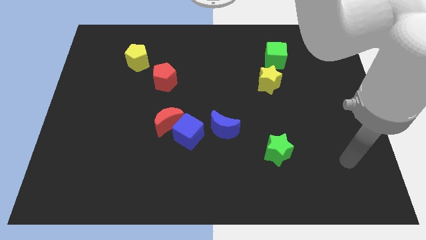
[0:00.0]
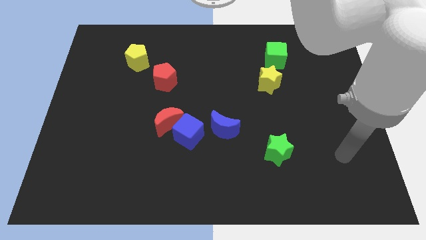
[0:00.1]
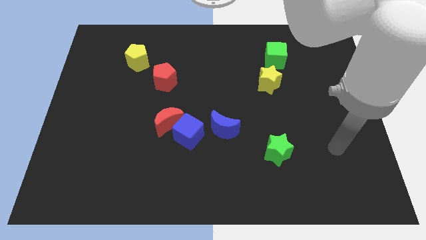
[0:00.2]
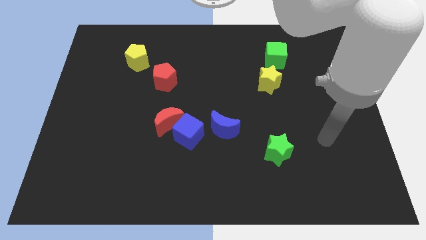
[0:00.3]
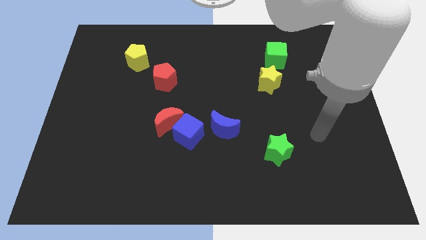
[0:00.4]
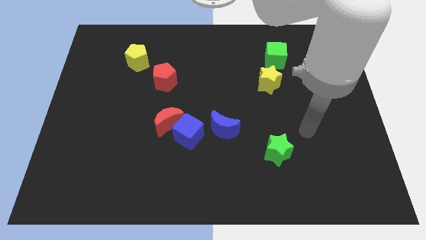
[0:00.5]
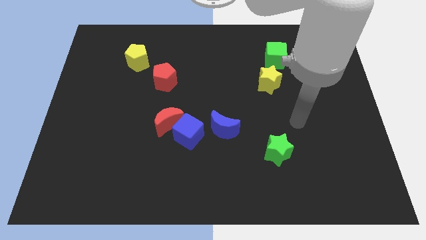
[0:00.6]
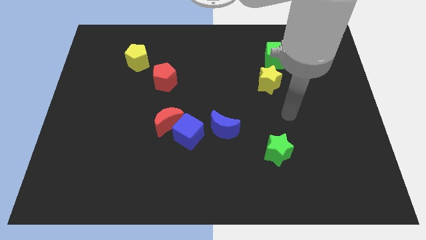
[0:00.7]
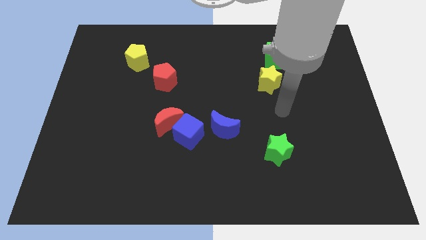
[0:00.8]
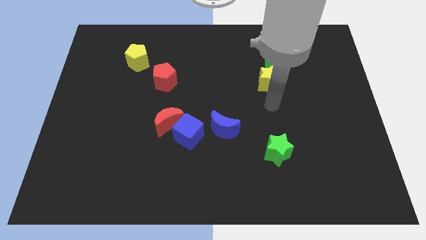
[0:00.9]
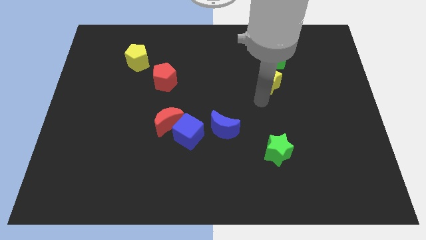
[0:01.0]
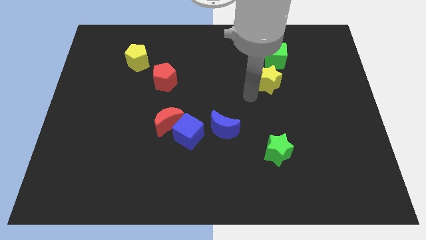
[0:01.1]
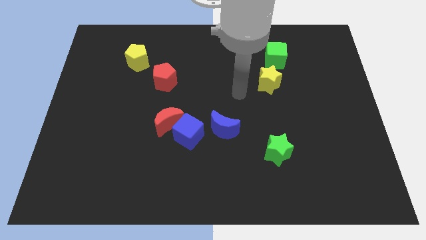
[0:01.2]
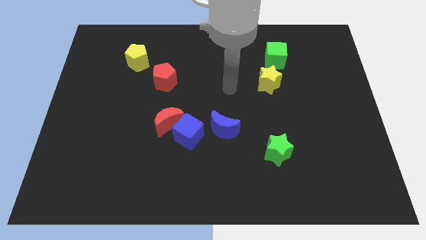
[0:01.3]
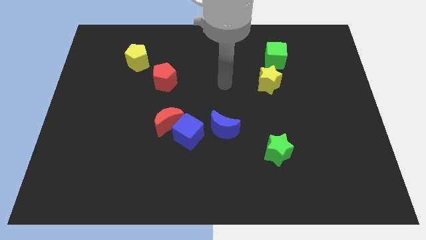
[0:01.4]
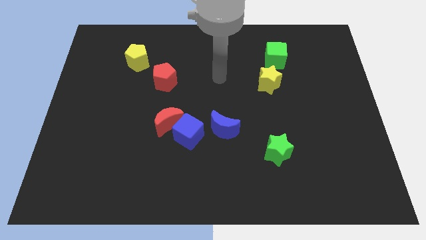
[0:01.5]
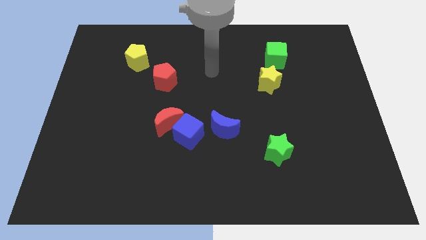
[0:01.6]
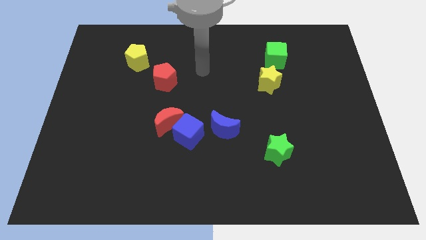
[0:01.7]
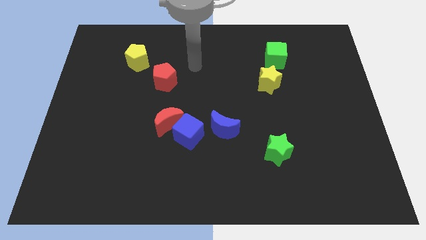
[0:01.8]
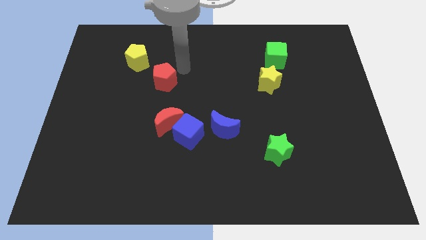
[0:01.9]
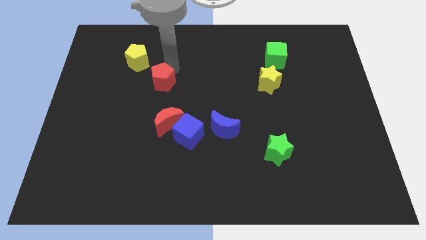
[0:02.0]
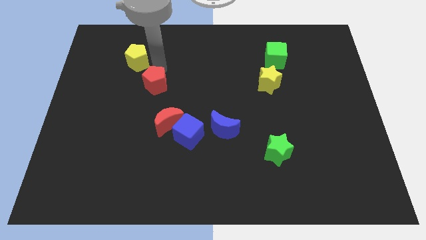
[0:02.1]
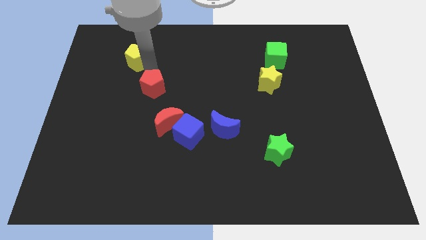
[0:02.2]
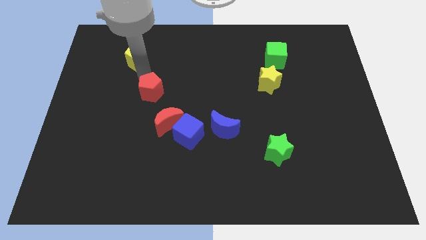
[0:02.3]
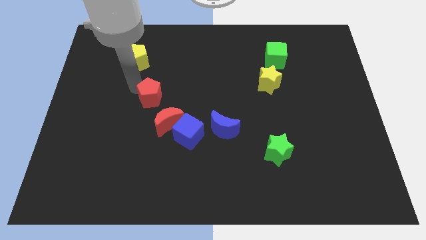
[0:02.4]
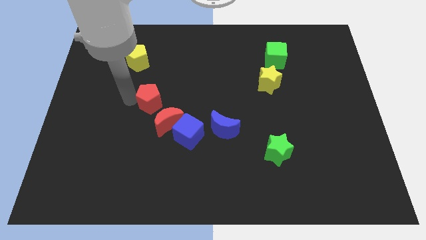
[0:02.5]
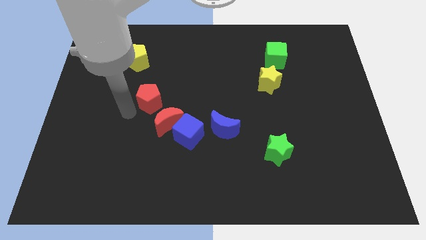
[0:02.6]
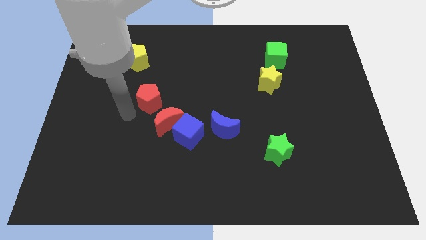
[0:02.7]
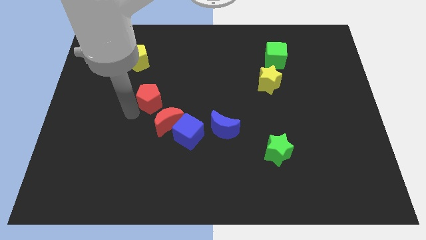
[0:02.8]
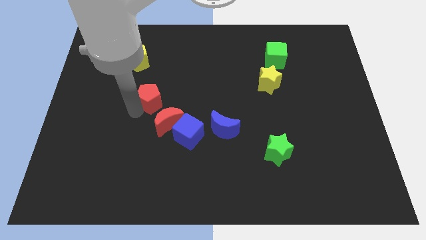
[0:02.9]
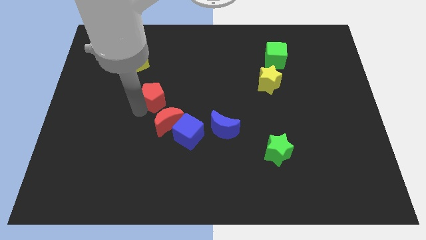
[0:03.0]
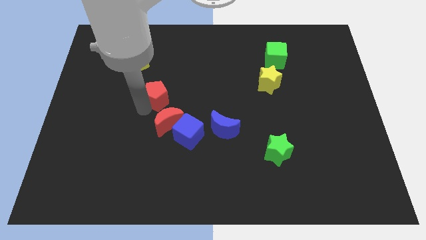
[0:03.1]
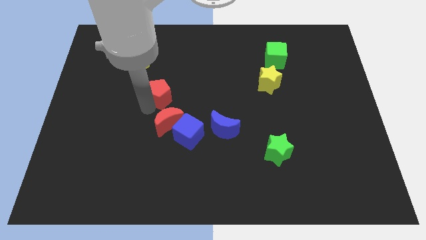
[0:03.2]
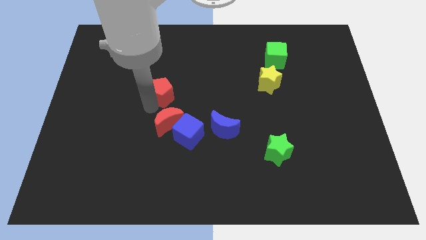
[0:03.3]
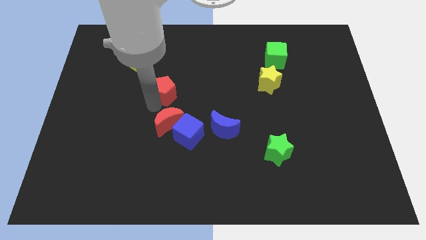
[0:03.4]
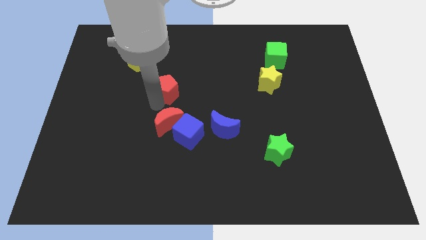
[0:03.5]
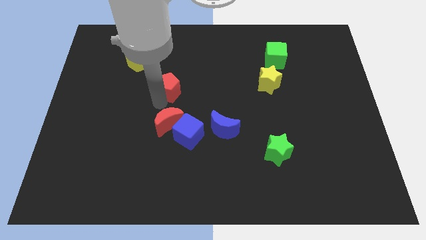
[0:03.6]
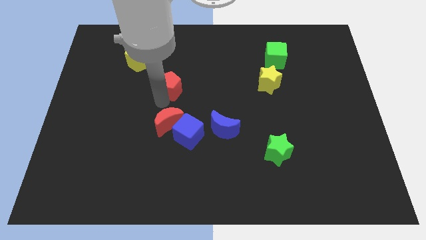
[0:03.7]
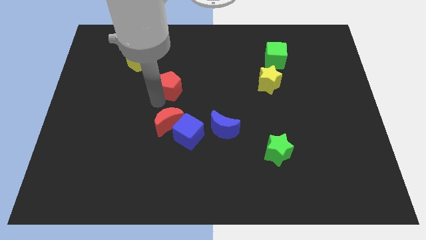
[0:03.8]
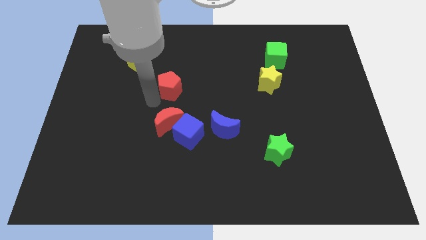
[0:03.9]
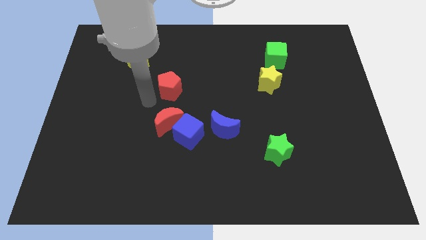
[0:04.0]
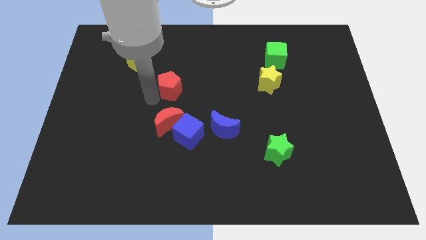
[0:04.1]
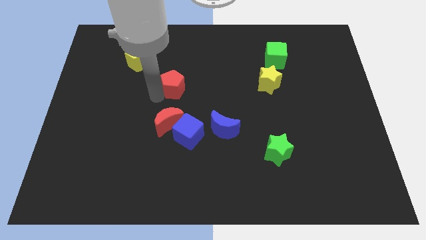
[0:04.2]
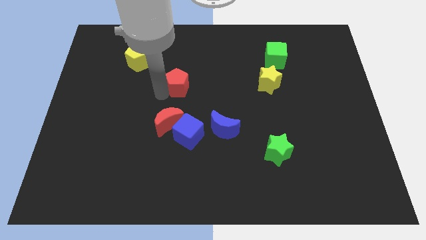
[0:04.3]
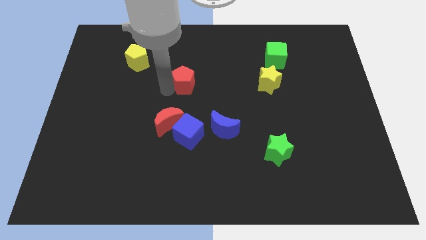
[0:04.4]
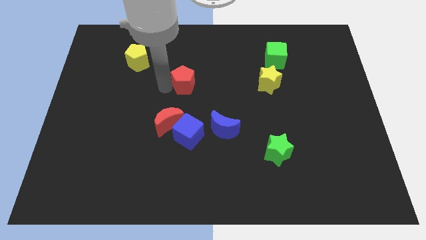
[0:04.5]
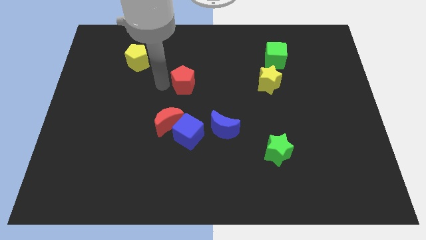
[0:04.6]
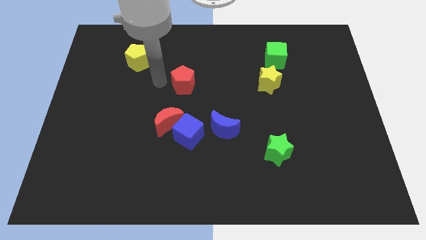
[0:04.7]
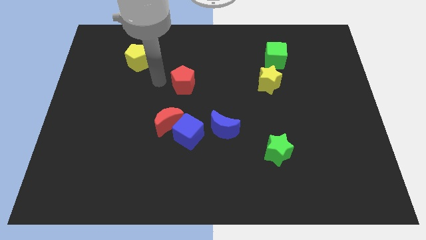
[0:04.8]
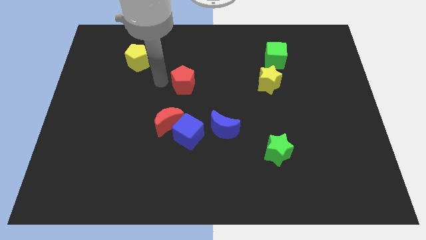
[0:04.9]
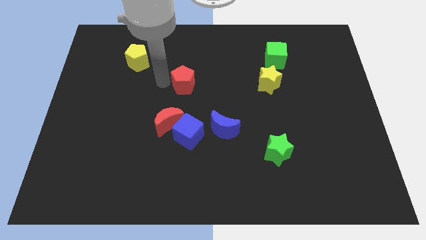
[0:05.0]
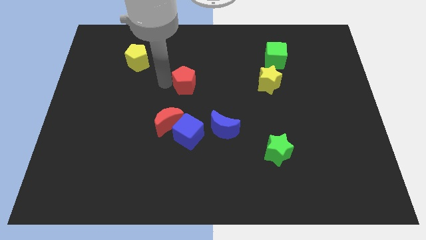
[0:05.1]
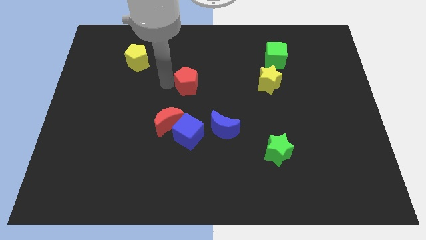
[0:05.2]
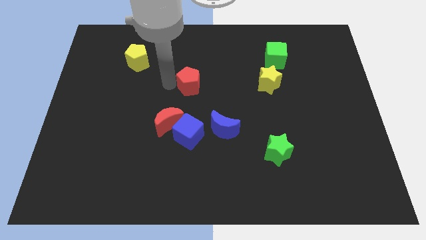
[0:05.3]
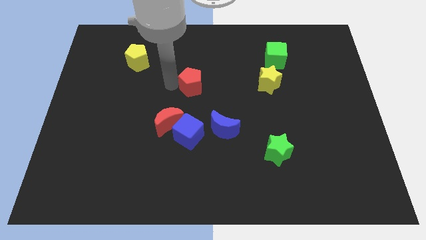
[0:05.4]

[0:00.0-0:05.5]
slightly move the red pentagon to the right

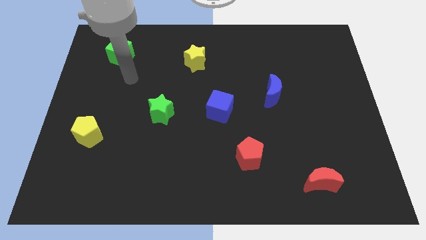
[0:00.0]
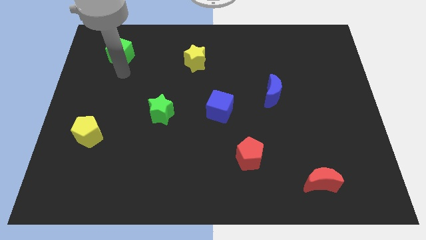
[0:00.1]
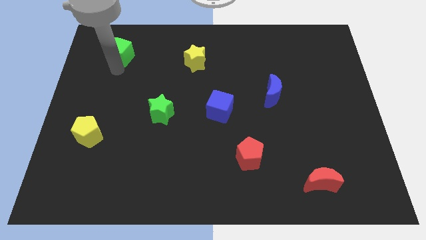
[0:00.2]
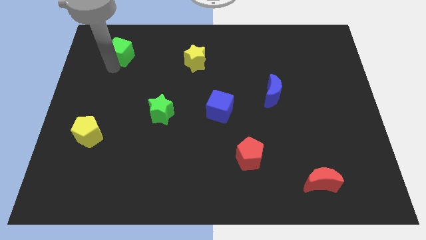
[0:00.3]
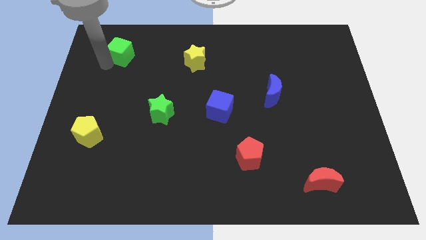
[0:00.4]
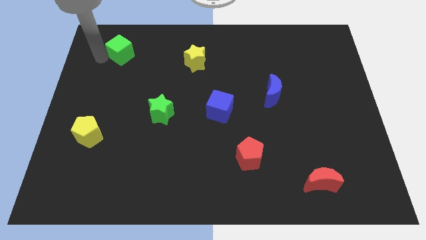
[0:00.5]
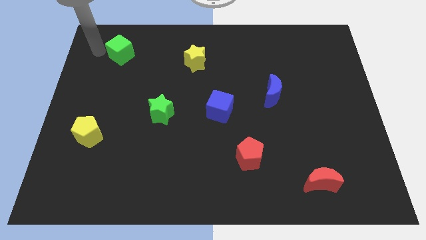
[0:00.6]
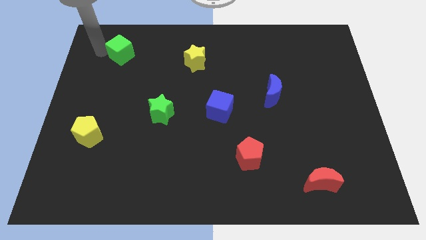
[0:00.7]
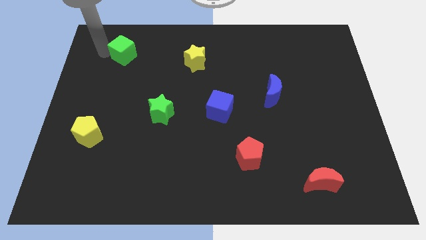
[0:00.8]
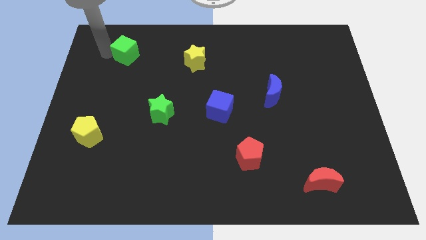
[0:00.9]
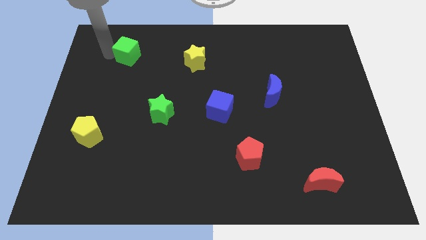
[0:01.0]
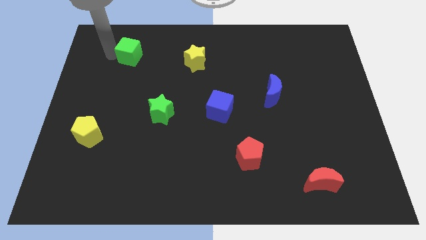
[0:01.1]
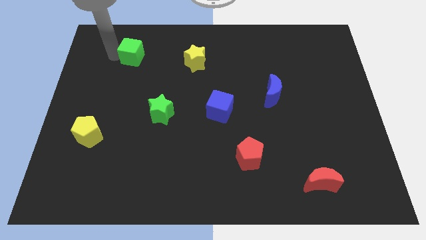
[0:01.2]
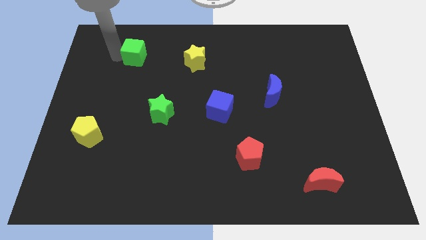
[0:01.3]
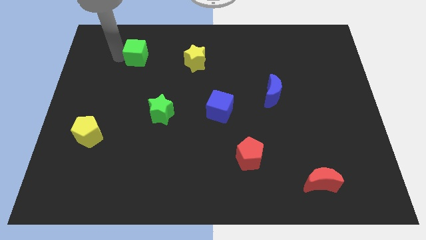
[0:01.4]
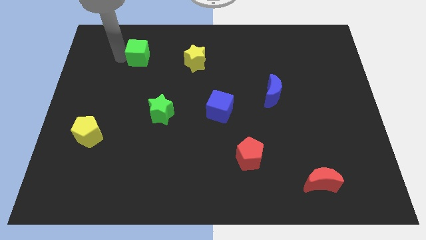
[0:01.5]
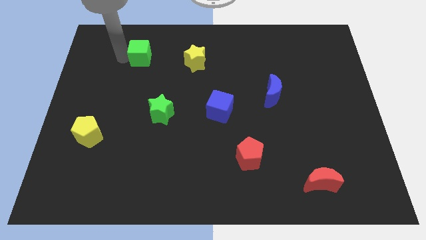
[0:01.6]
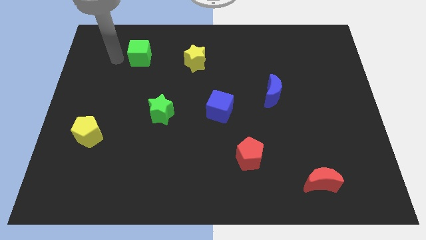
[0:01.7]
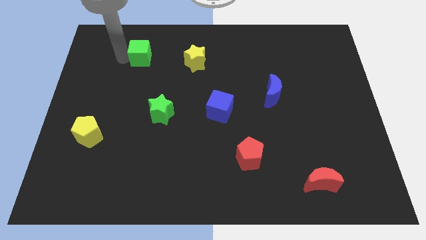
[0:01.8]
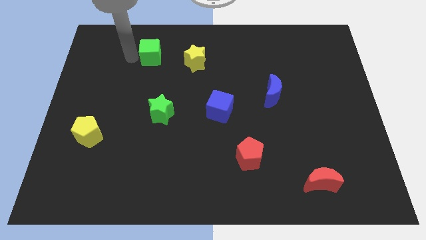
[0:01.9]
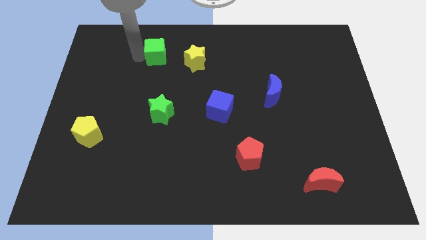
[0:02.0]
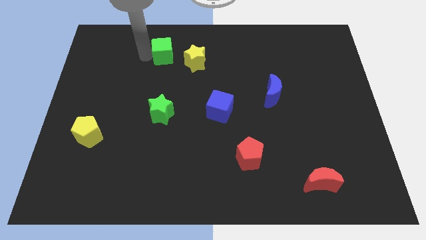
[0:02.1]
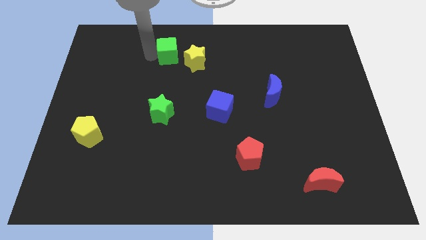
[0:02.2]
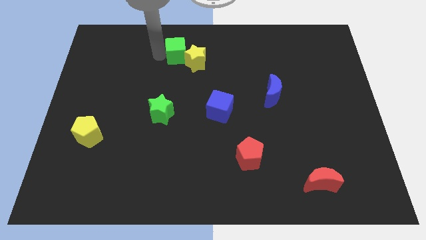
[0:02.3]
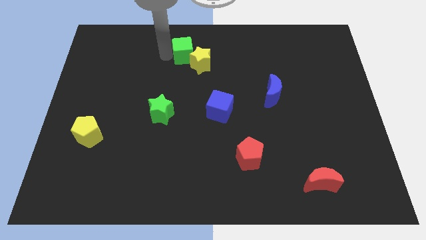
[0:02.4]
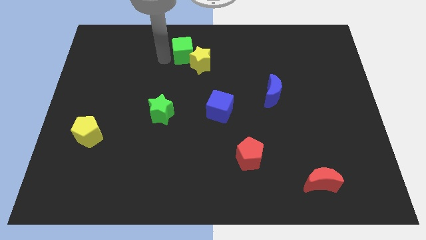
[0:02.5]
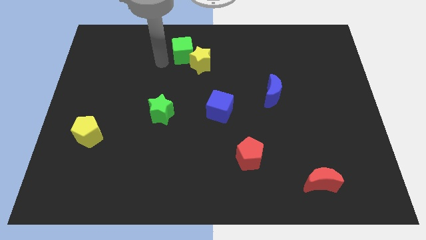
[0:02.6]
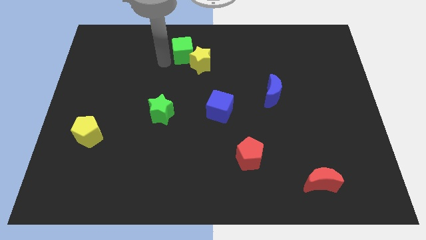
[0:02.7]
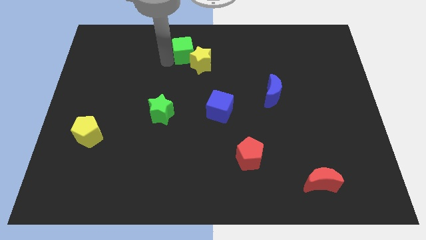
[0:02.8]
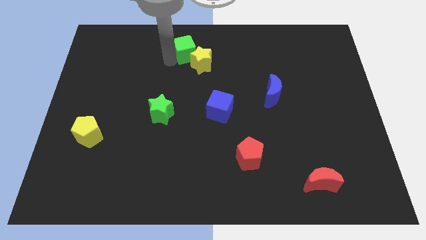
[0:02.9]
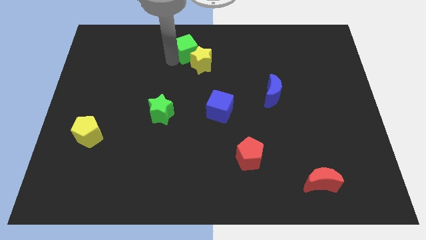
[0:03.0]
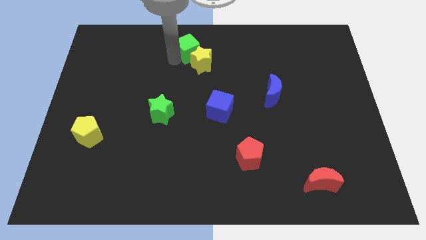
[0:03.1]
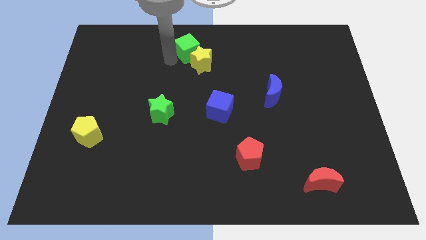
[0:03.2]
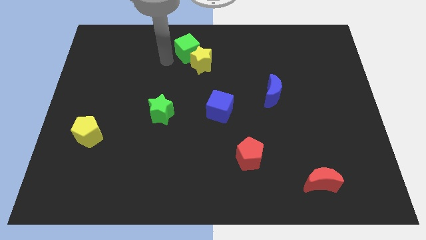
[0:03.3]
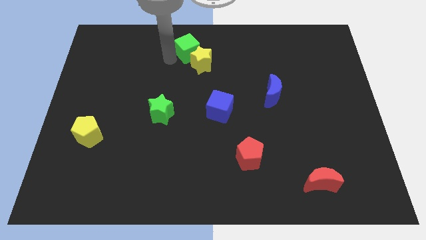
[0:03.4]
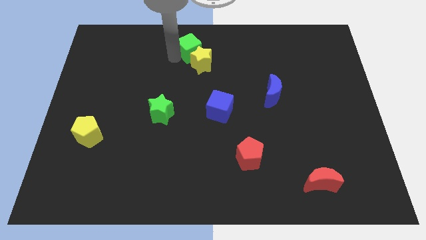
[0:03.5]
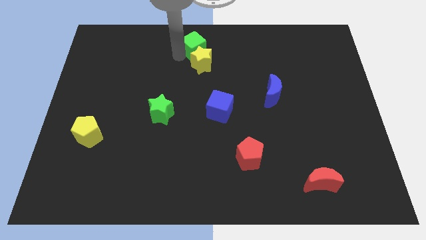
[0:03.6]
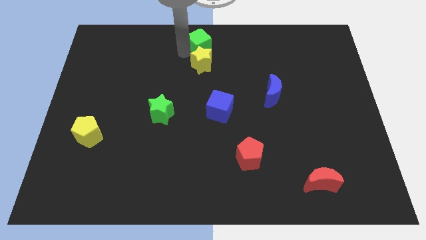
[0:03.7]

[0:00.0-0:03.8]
slide the green cube right
